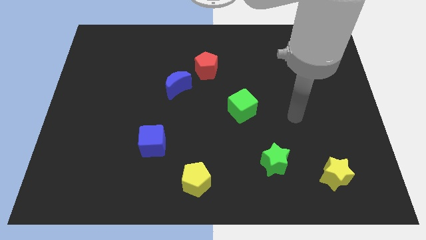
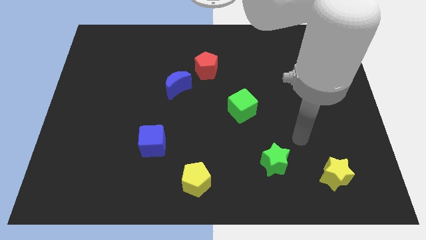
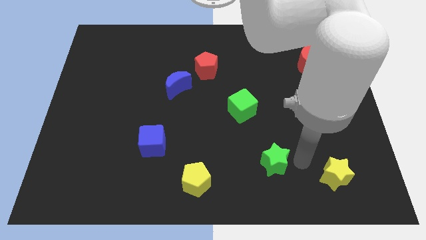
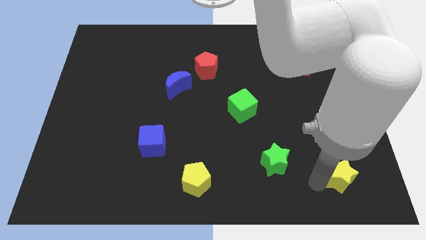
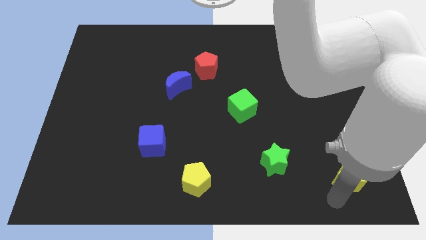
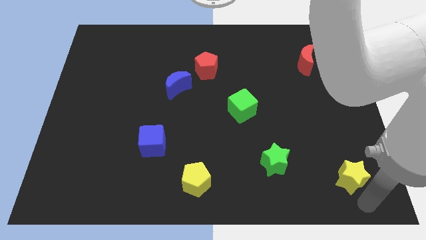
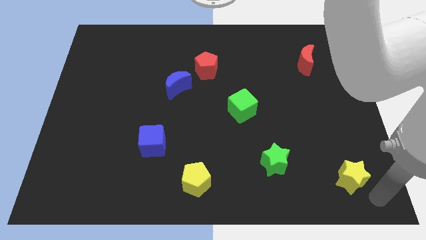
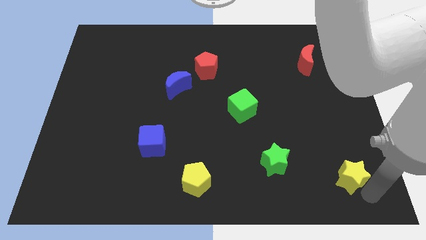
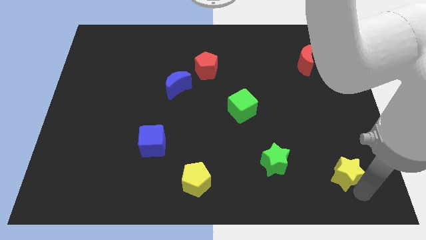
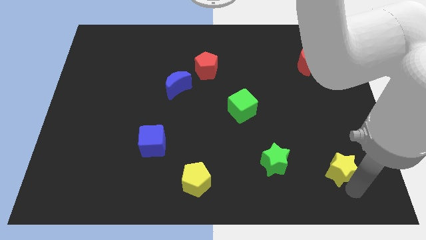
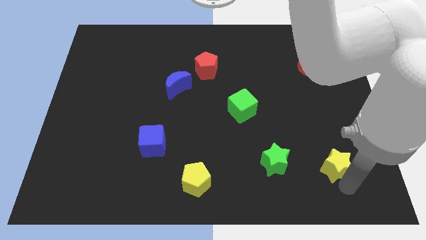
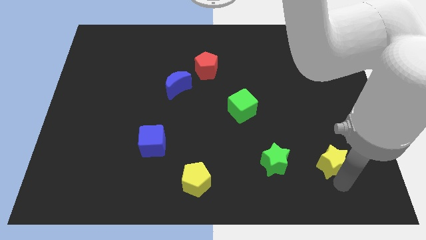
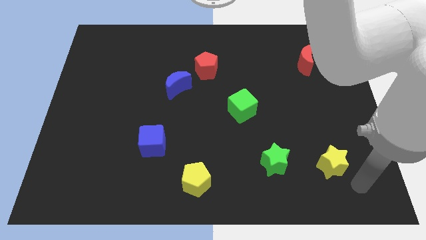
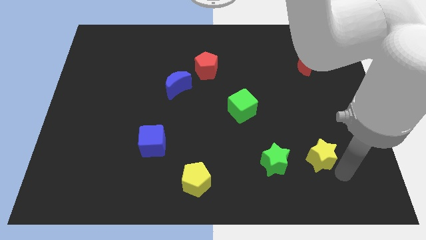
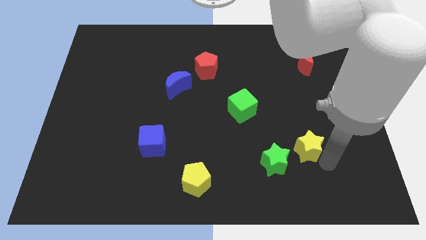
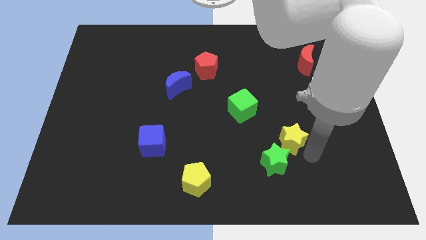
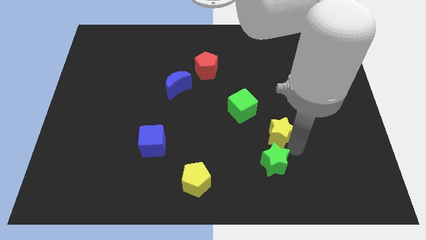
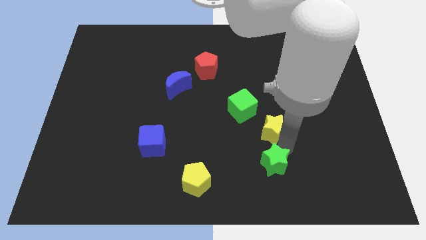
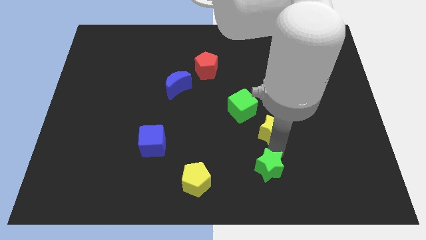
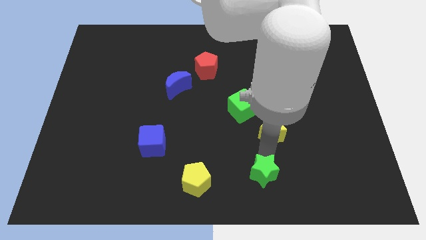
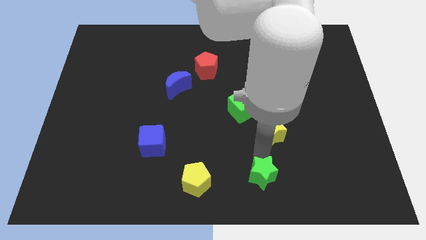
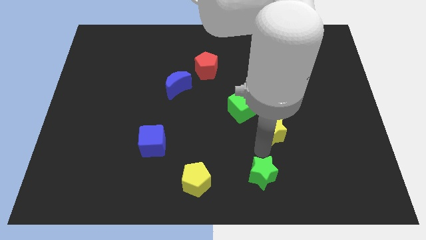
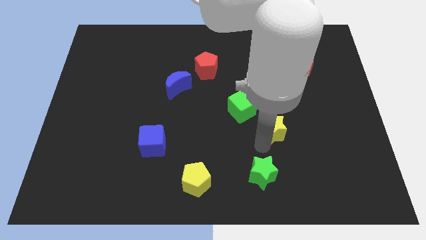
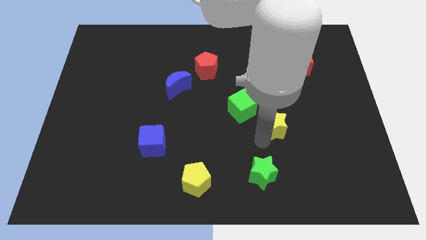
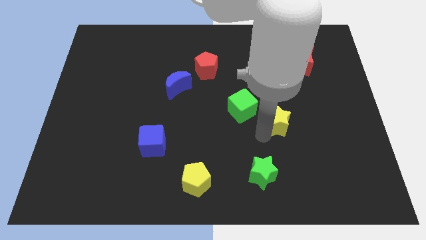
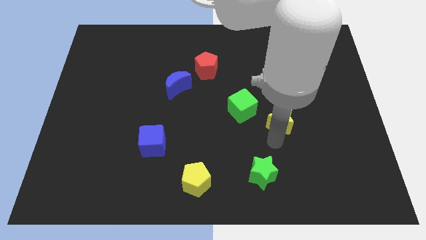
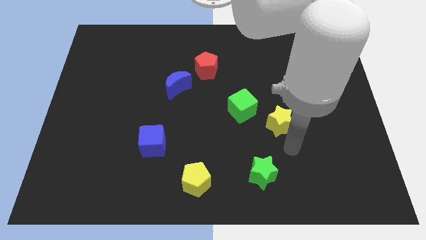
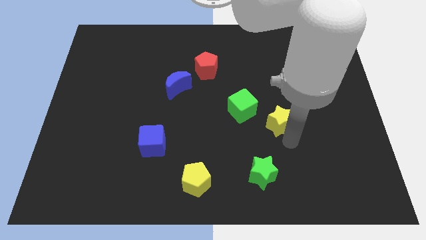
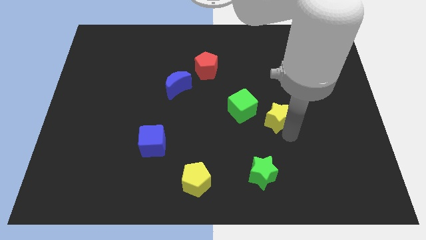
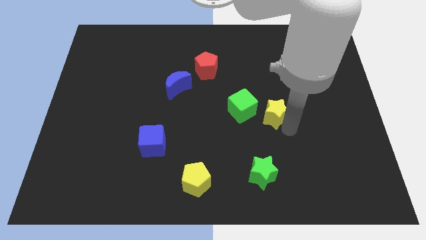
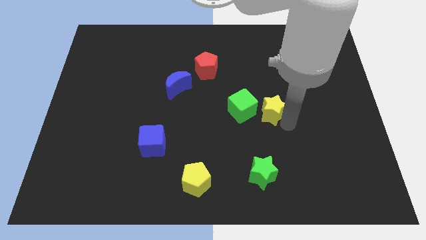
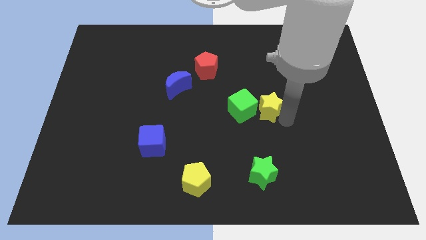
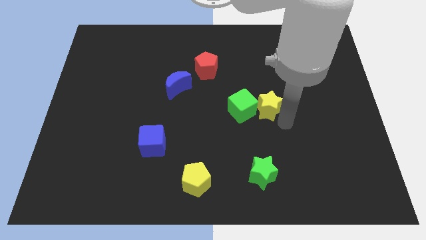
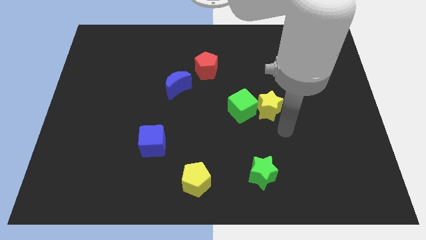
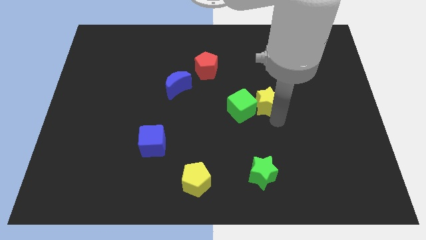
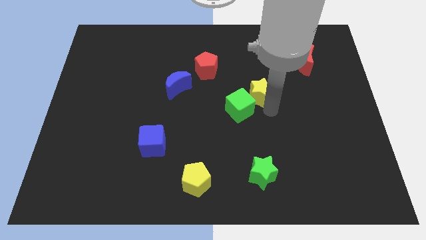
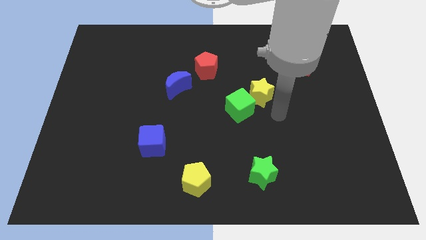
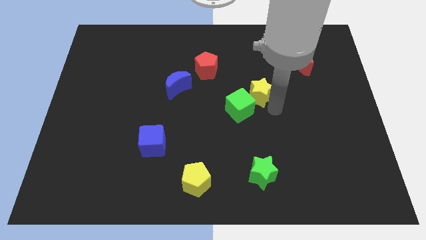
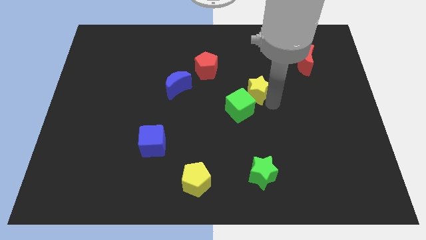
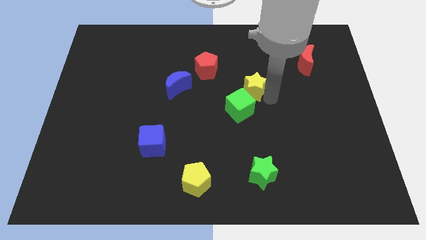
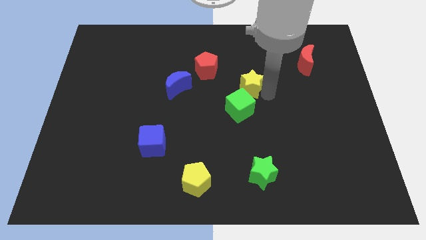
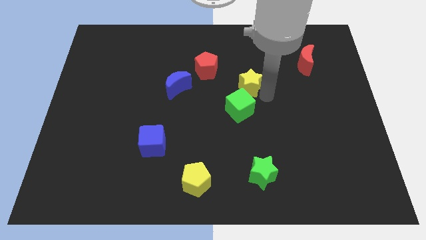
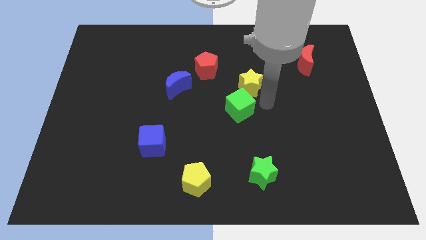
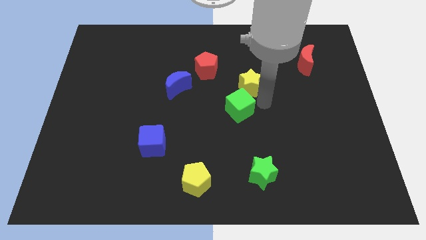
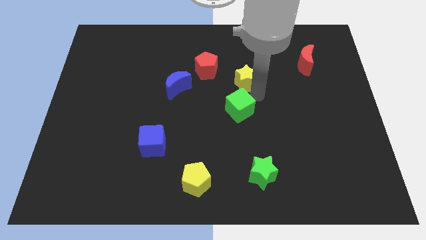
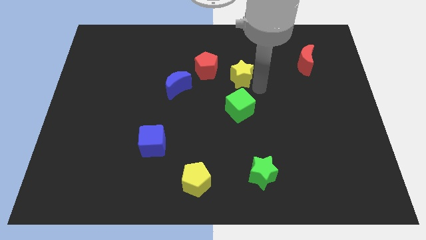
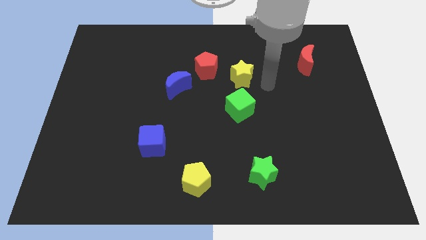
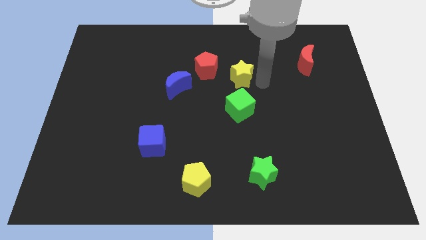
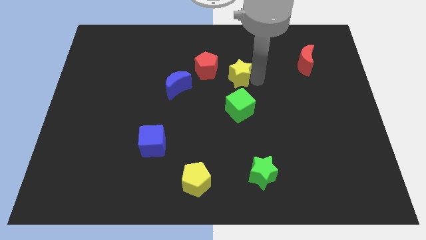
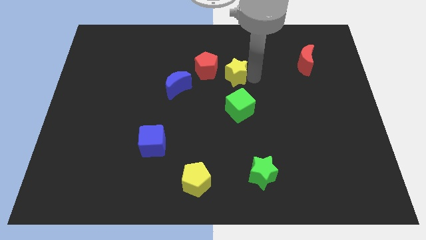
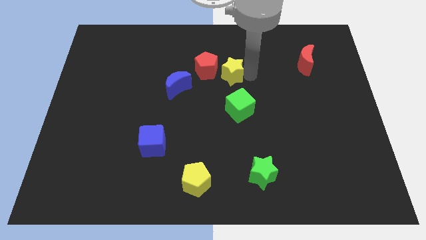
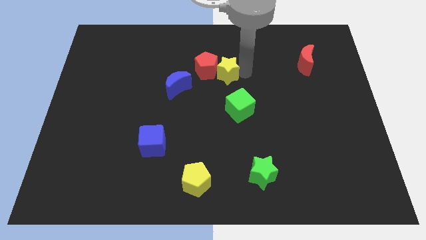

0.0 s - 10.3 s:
put the yellow star to the red pentagon

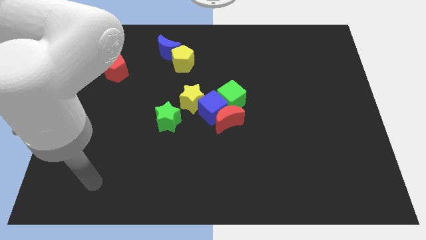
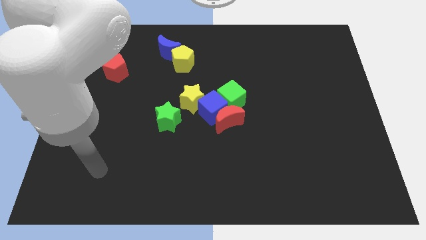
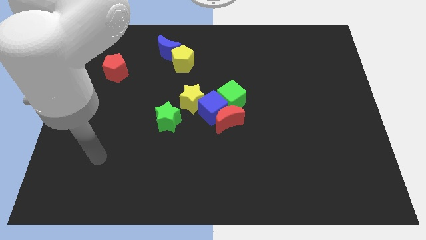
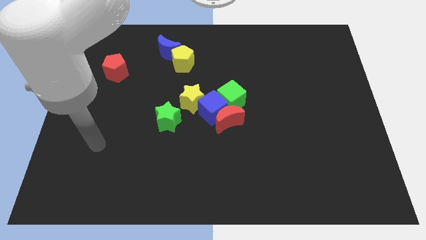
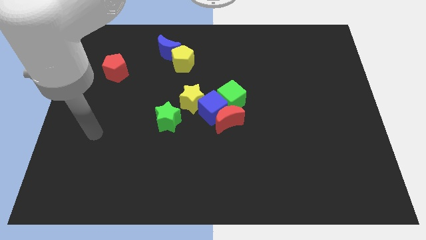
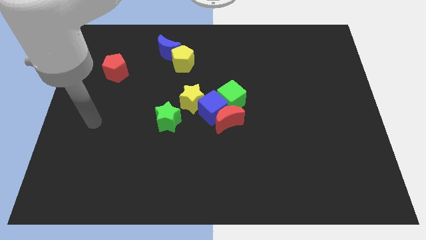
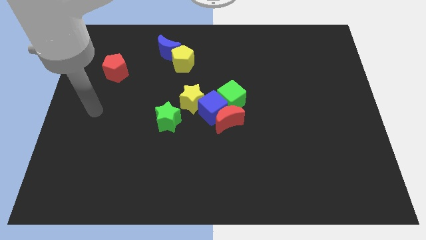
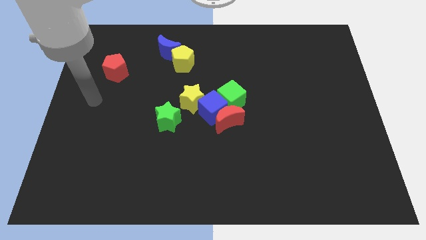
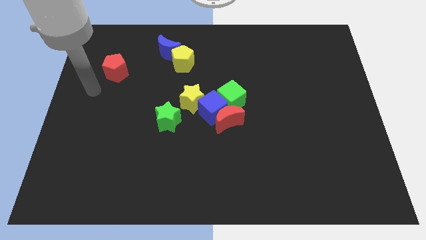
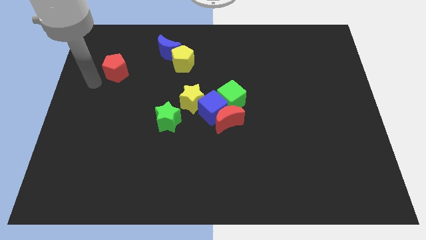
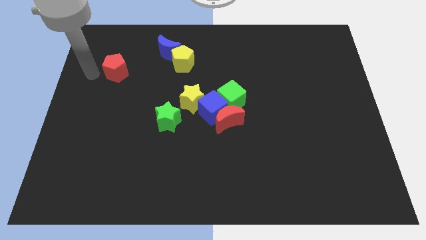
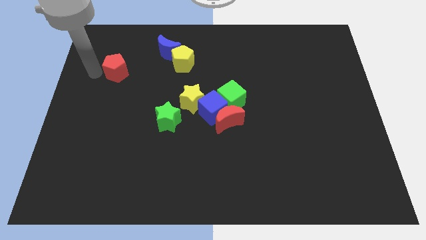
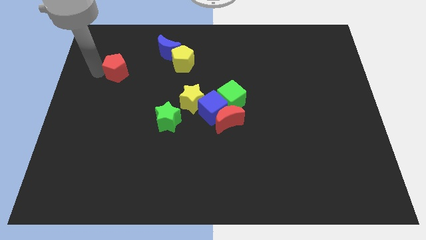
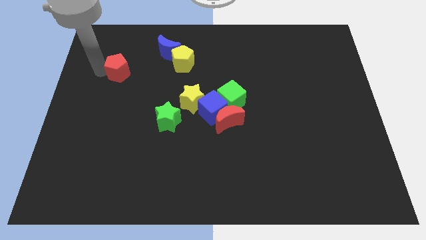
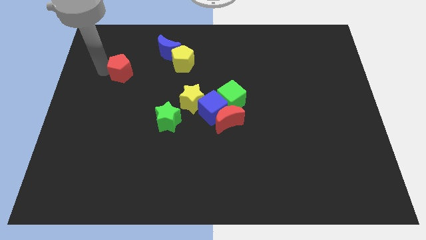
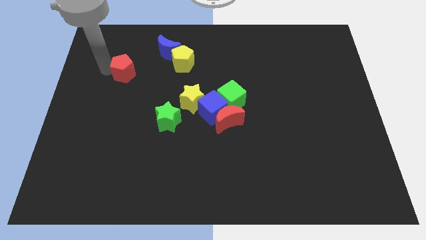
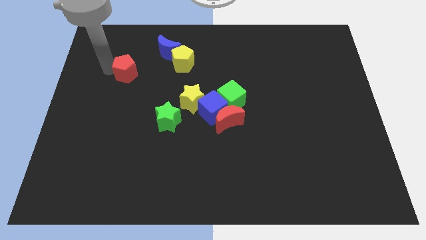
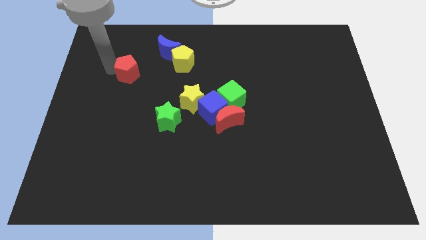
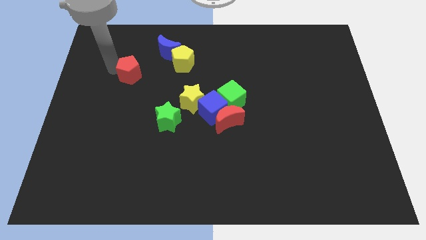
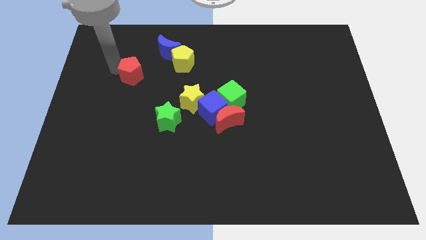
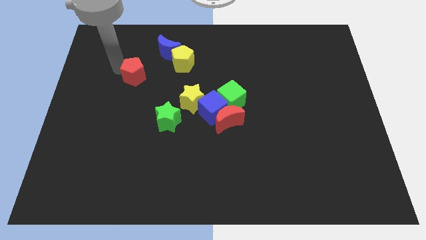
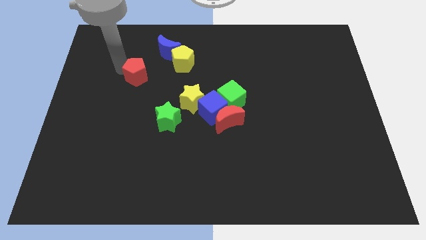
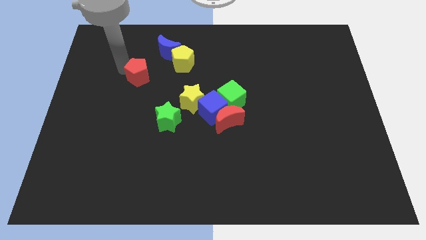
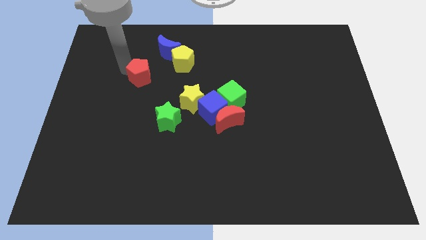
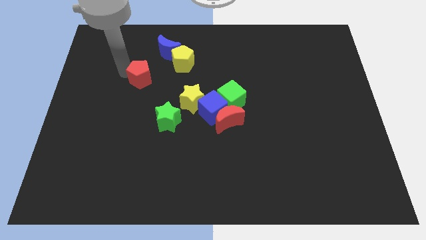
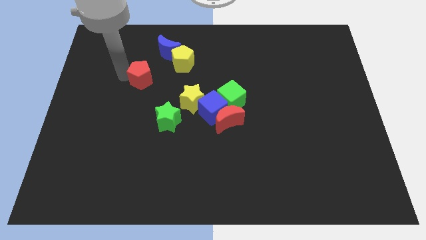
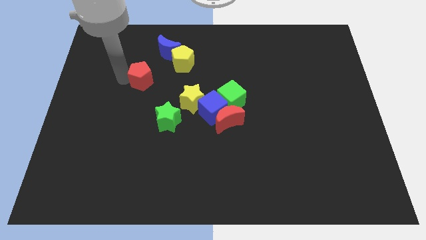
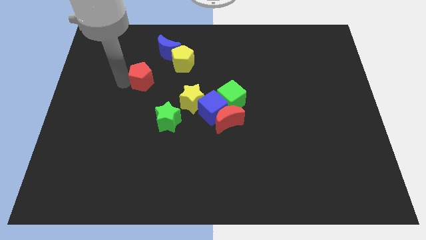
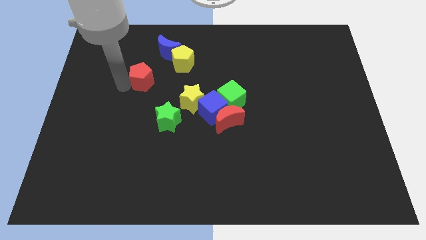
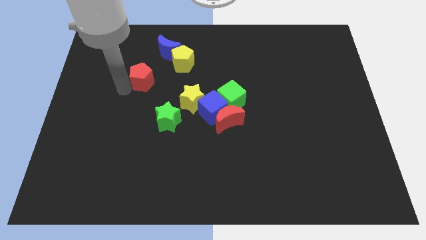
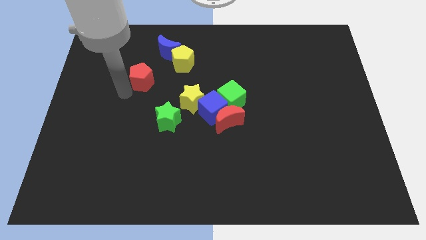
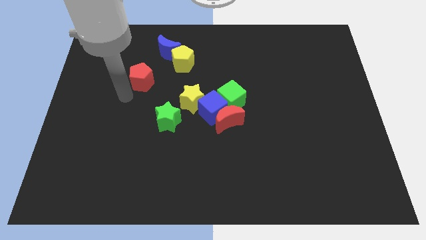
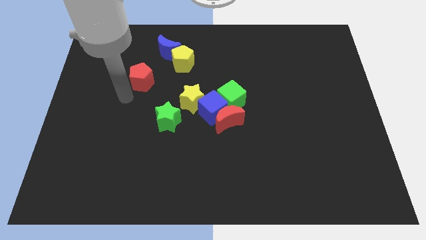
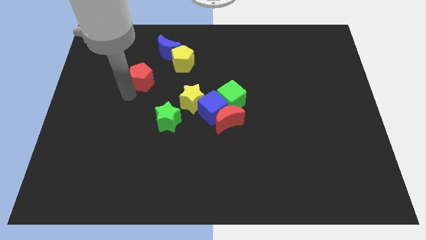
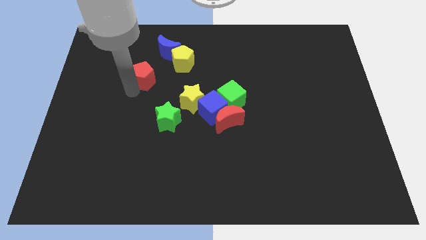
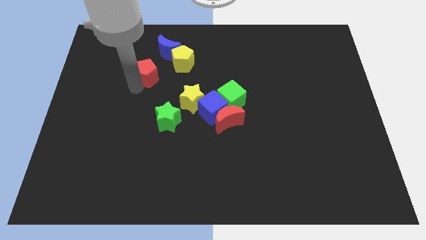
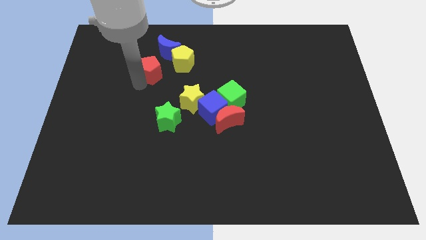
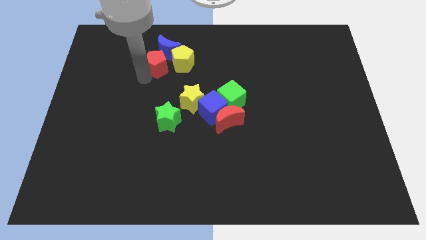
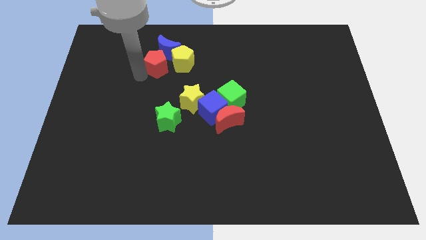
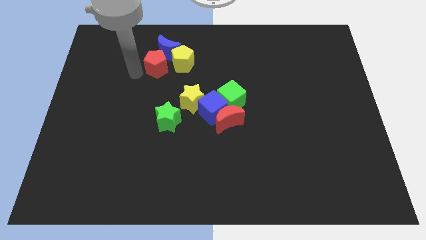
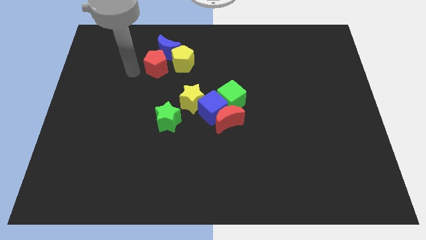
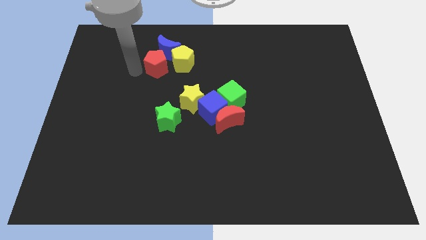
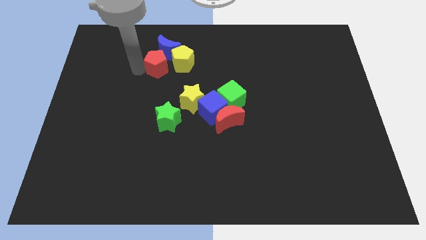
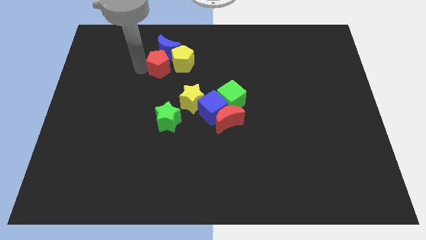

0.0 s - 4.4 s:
slide the red pentagon close to the yellow pentagon
